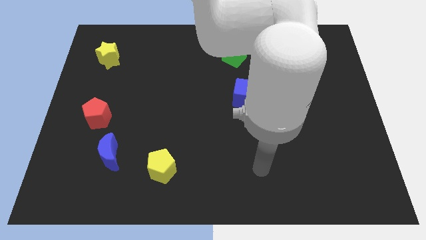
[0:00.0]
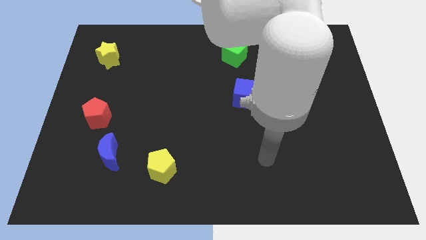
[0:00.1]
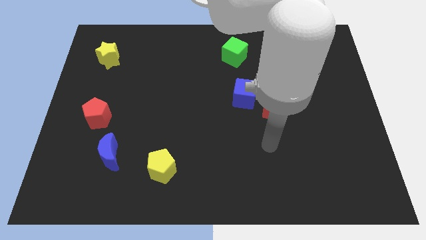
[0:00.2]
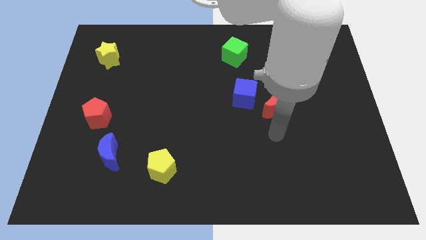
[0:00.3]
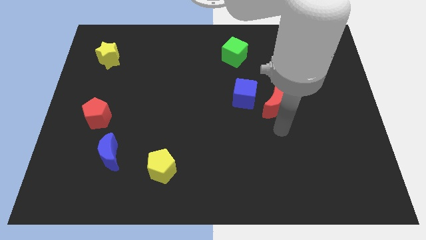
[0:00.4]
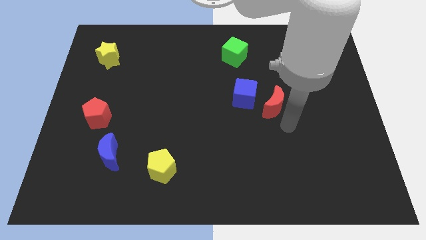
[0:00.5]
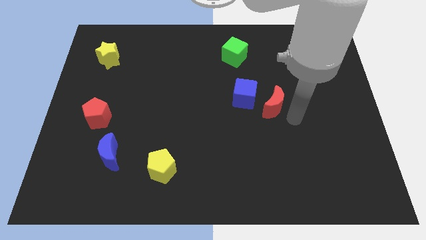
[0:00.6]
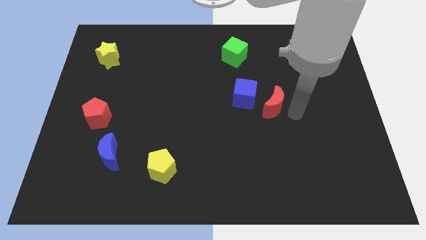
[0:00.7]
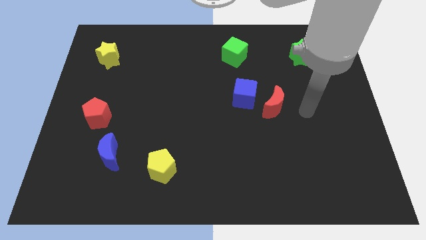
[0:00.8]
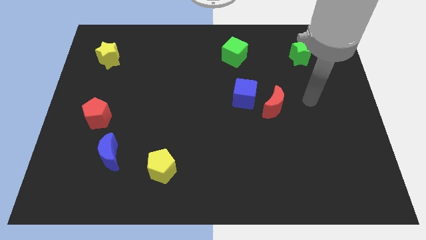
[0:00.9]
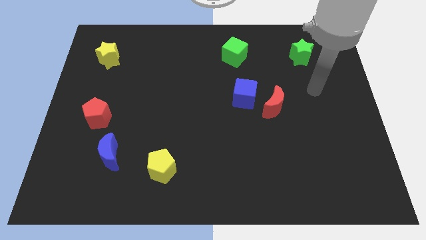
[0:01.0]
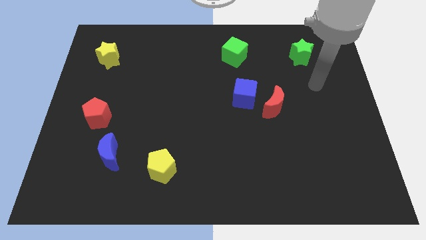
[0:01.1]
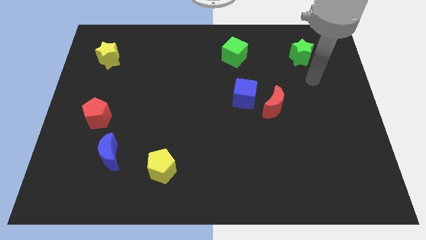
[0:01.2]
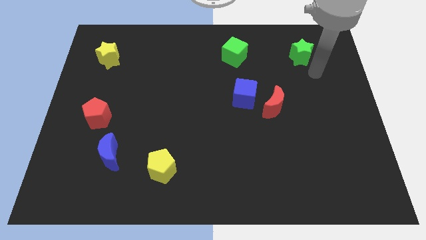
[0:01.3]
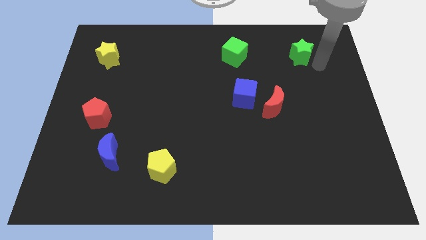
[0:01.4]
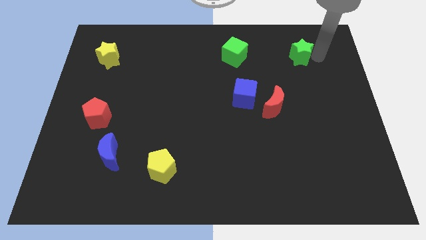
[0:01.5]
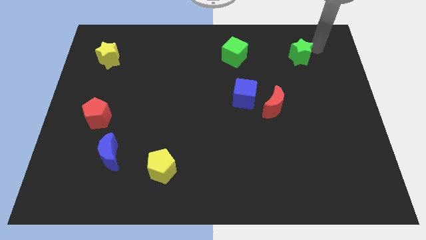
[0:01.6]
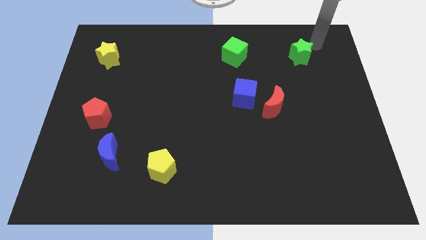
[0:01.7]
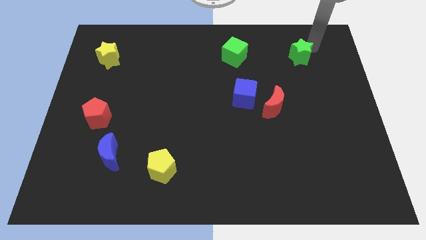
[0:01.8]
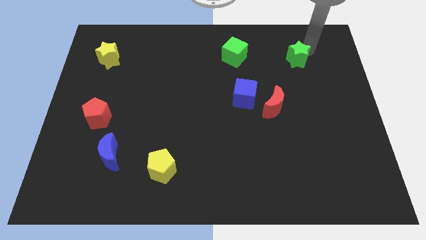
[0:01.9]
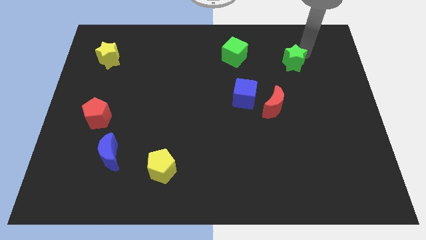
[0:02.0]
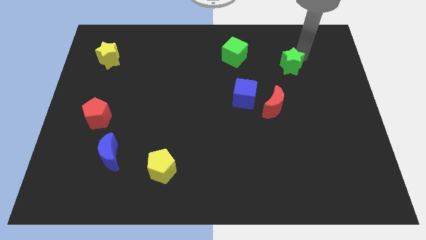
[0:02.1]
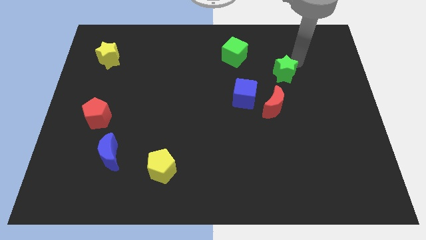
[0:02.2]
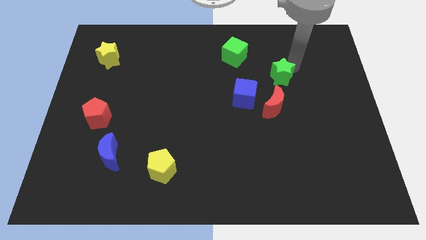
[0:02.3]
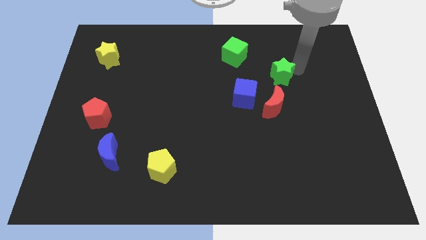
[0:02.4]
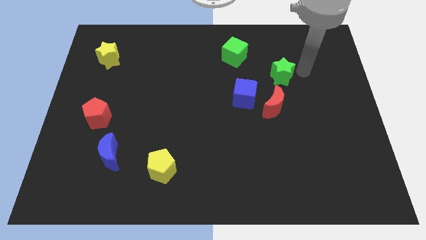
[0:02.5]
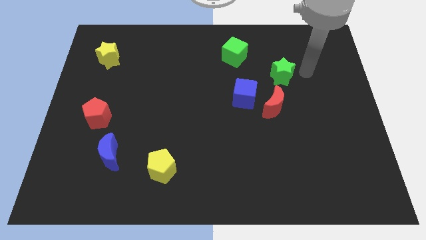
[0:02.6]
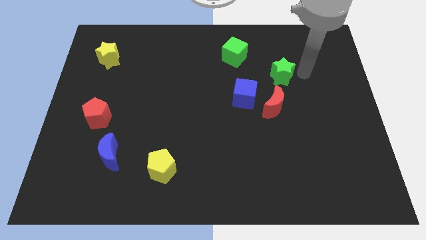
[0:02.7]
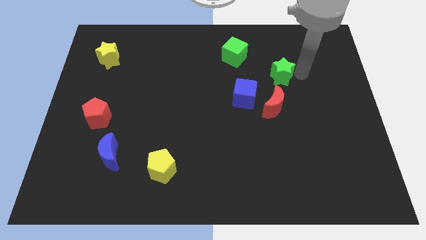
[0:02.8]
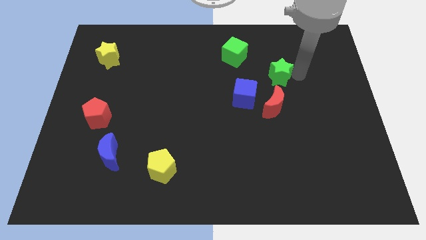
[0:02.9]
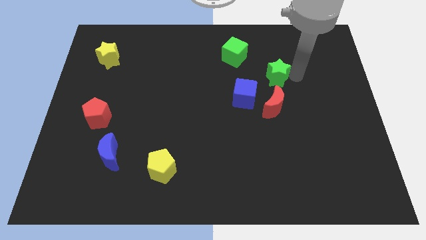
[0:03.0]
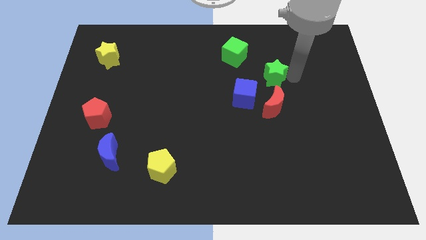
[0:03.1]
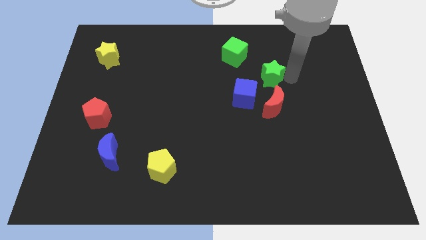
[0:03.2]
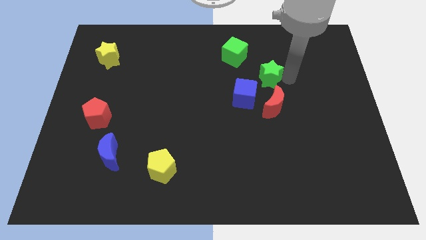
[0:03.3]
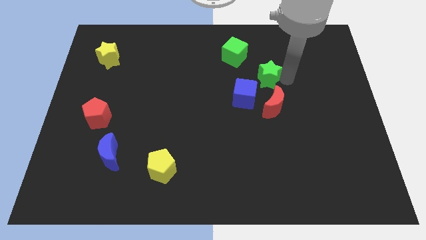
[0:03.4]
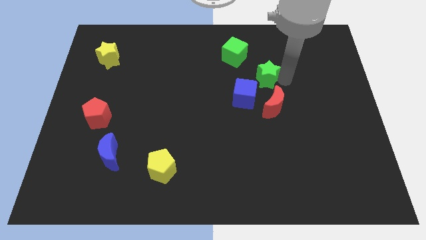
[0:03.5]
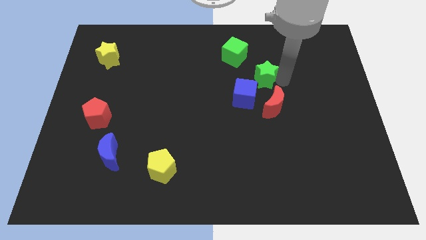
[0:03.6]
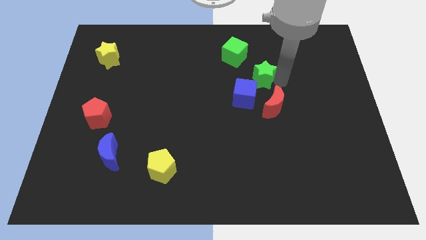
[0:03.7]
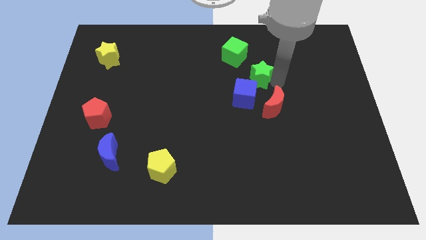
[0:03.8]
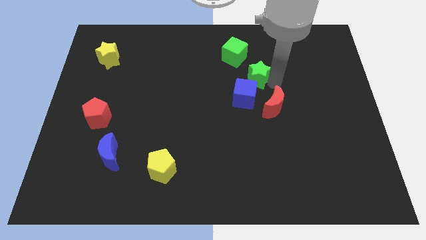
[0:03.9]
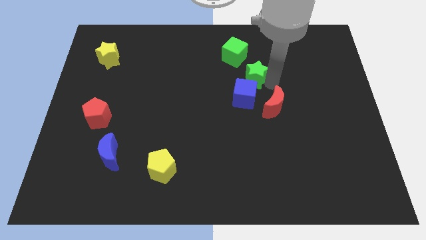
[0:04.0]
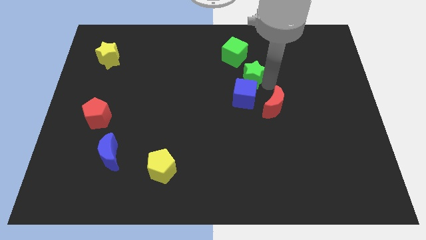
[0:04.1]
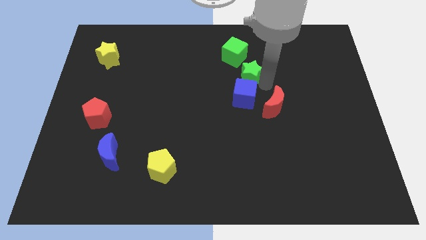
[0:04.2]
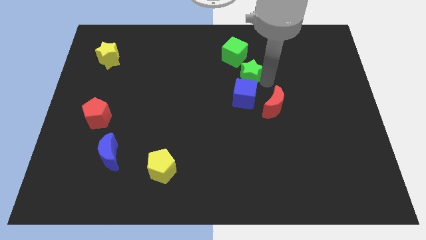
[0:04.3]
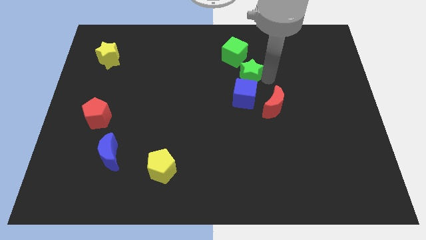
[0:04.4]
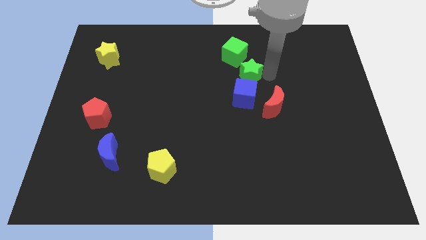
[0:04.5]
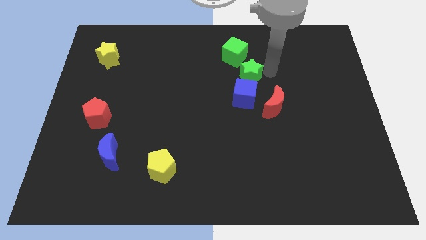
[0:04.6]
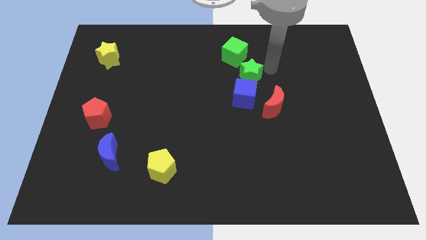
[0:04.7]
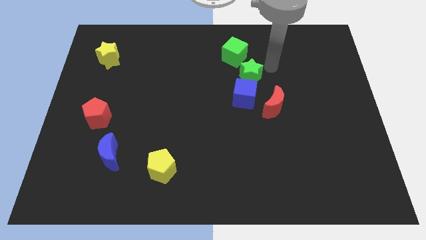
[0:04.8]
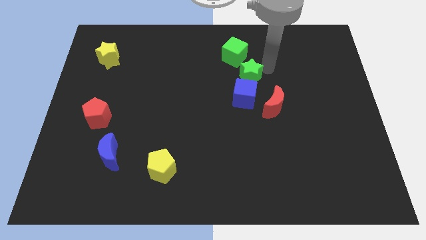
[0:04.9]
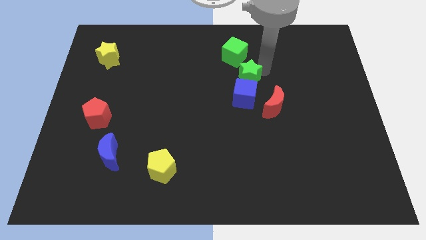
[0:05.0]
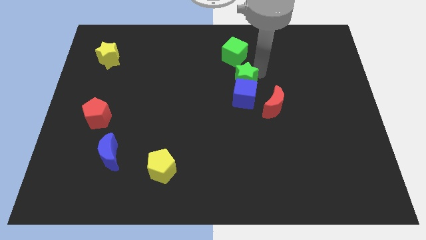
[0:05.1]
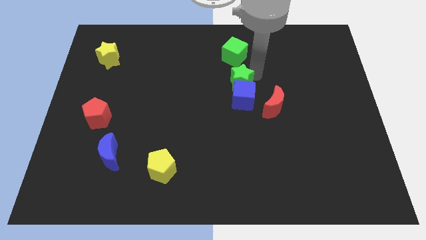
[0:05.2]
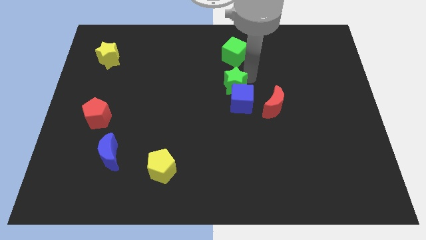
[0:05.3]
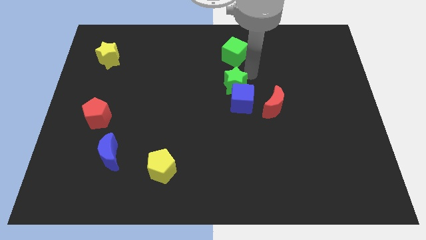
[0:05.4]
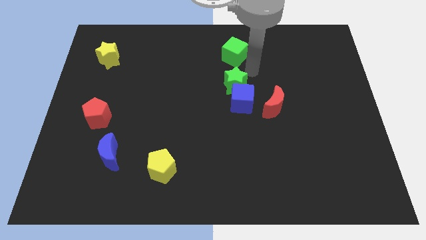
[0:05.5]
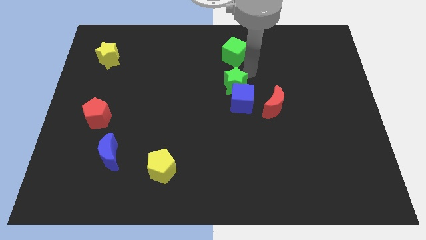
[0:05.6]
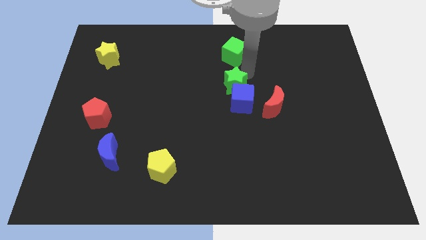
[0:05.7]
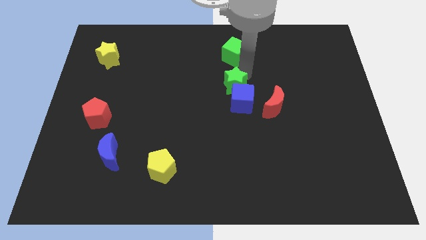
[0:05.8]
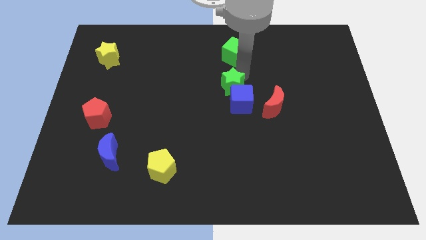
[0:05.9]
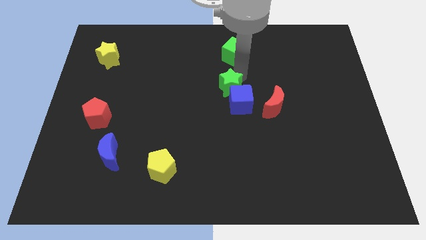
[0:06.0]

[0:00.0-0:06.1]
move the green star down and then to the left

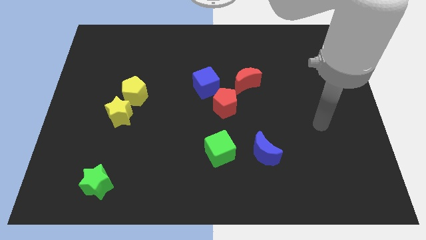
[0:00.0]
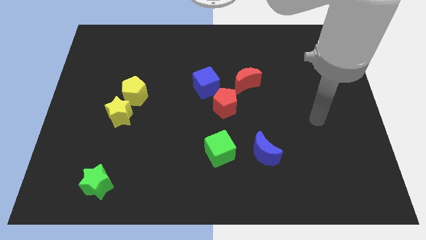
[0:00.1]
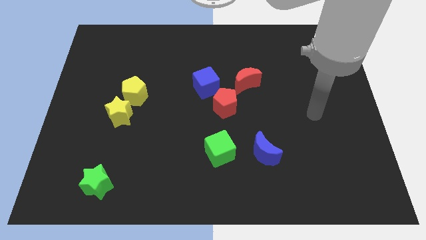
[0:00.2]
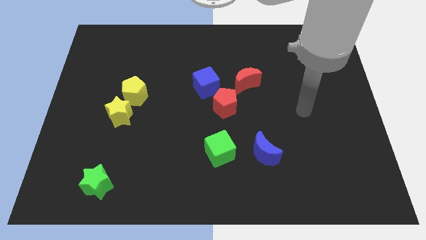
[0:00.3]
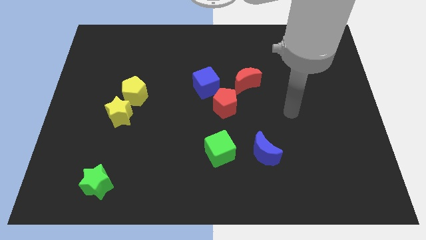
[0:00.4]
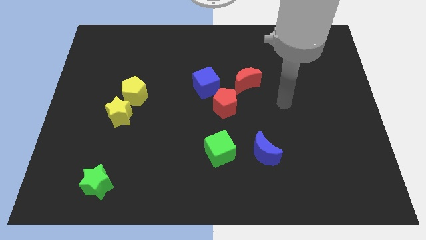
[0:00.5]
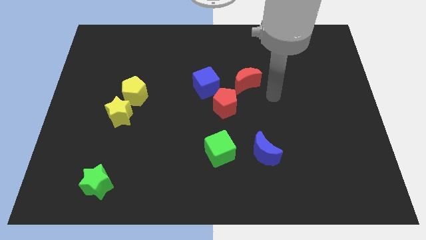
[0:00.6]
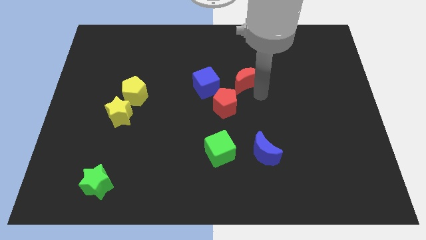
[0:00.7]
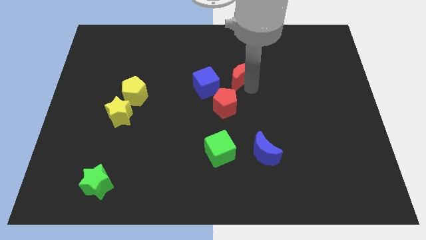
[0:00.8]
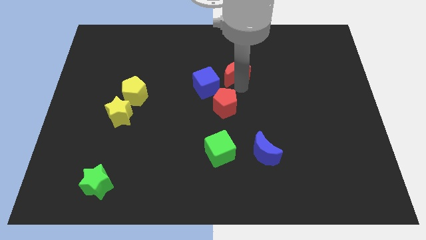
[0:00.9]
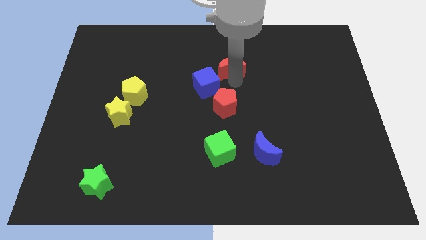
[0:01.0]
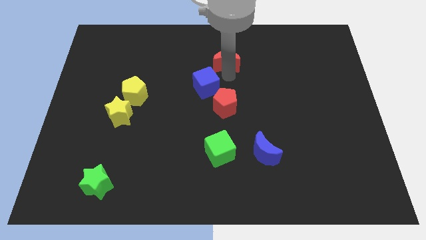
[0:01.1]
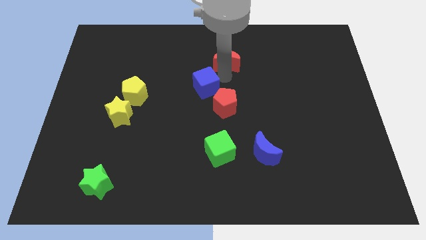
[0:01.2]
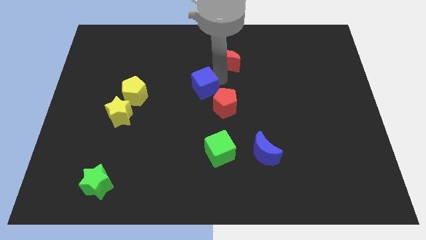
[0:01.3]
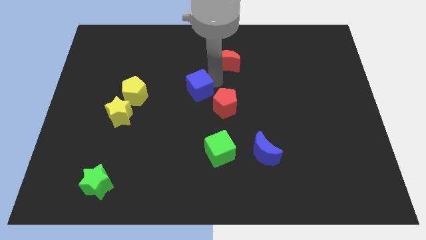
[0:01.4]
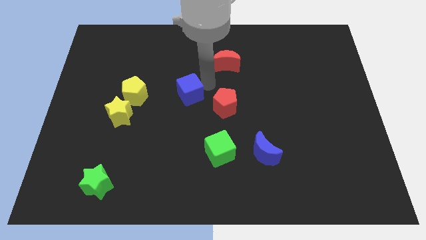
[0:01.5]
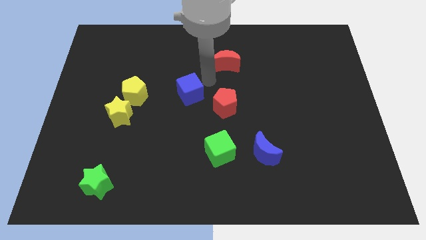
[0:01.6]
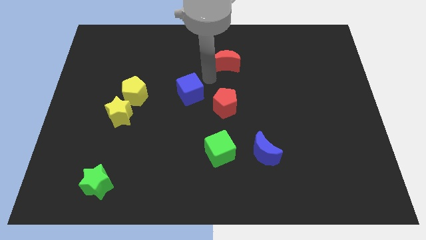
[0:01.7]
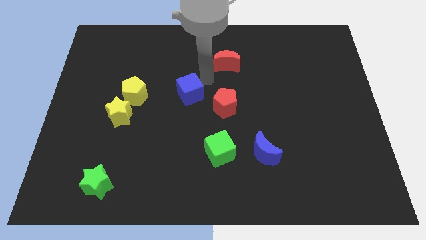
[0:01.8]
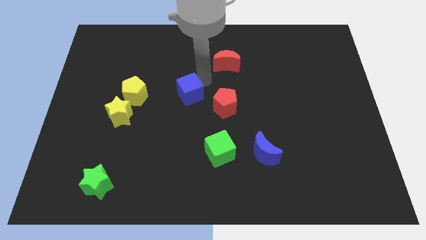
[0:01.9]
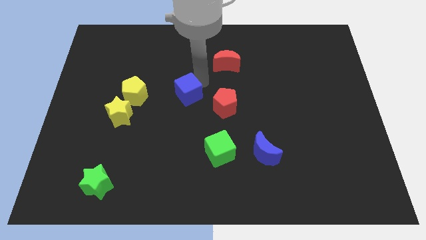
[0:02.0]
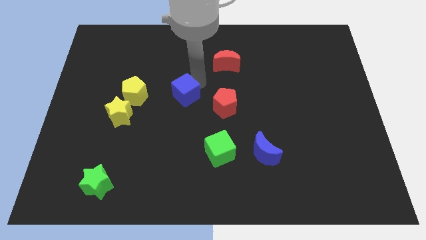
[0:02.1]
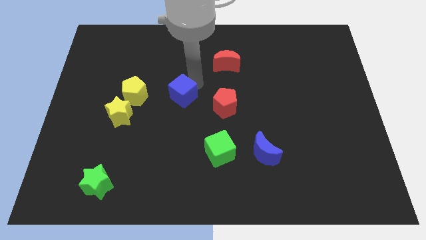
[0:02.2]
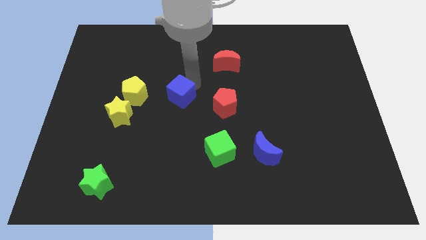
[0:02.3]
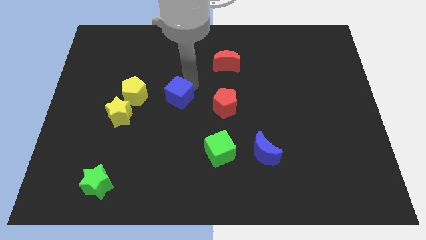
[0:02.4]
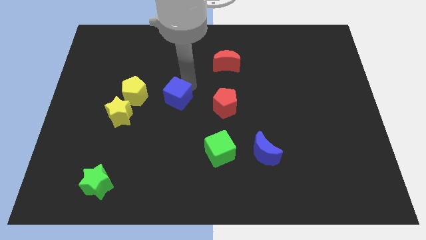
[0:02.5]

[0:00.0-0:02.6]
slightly slide the blue cube downwards and left diagonally
